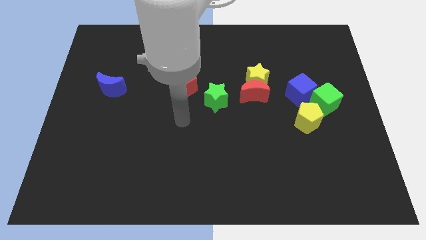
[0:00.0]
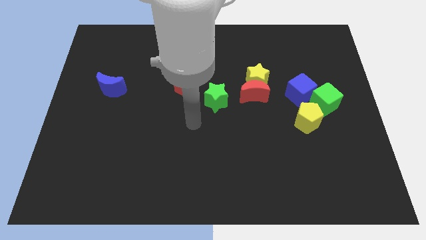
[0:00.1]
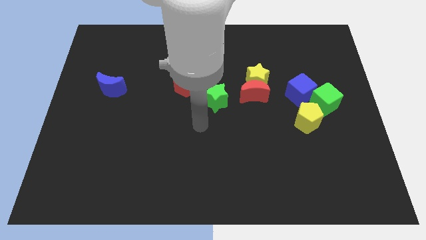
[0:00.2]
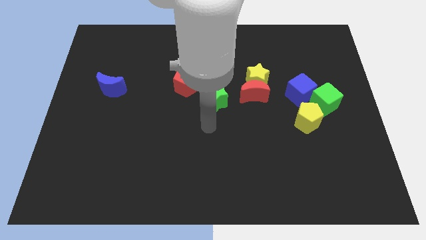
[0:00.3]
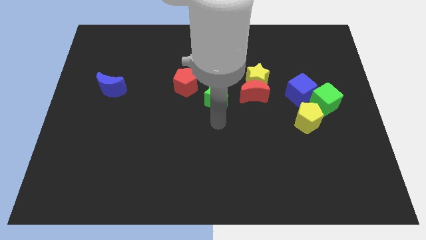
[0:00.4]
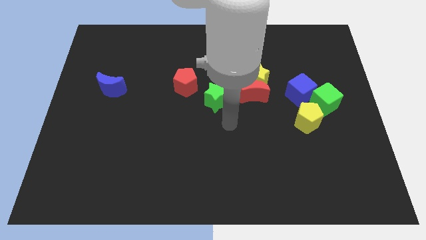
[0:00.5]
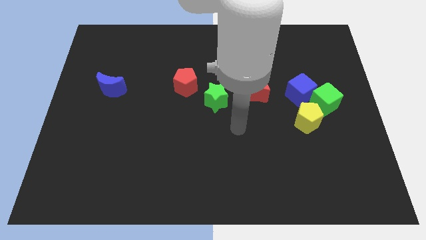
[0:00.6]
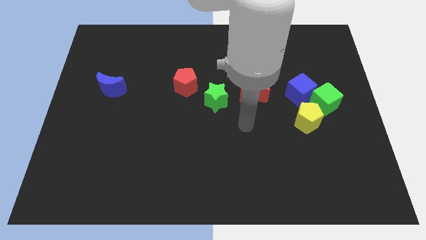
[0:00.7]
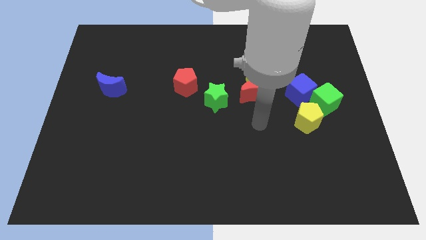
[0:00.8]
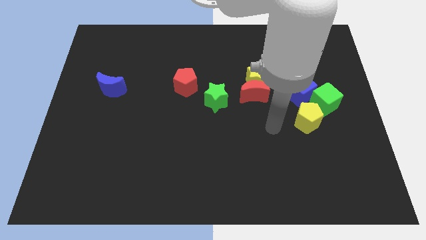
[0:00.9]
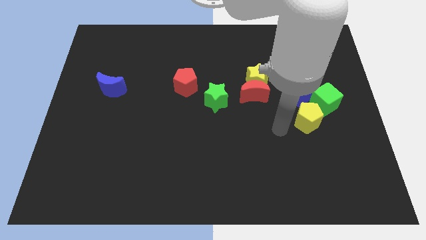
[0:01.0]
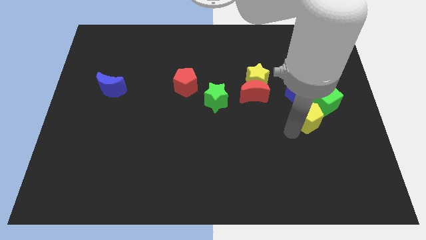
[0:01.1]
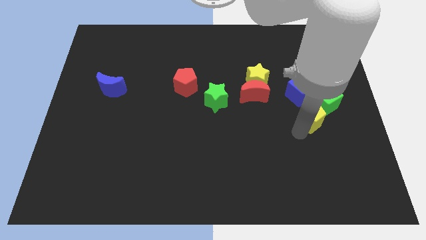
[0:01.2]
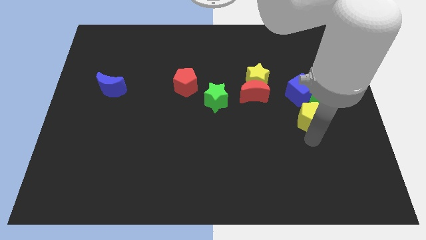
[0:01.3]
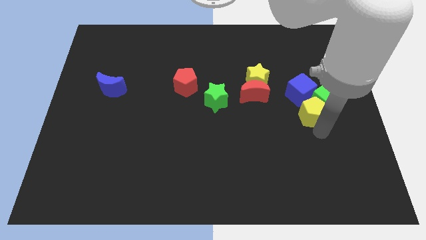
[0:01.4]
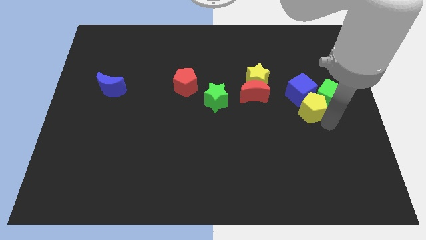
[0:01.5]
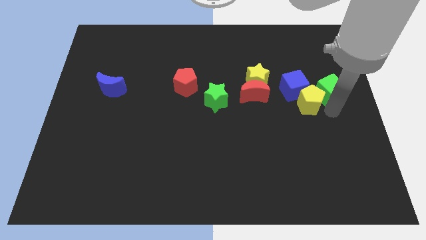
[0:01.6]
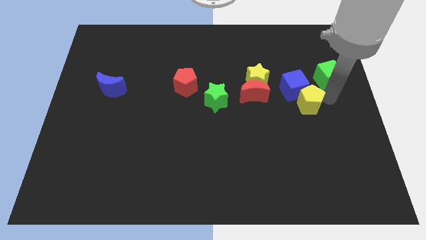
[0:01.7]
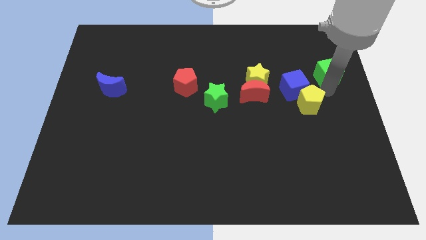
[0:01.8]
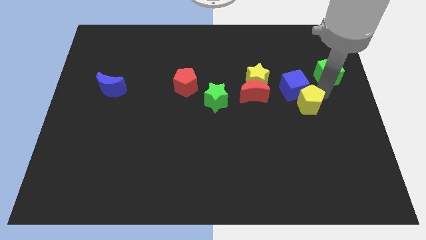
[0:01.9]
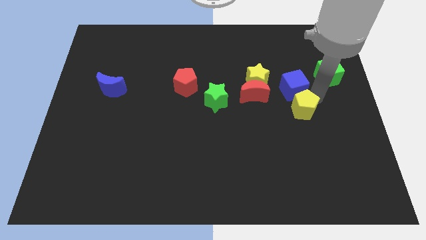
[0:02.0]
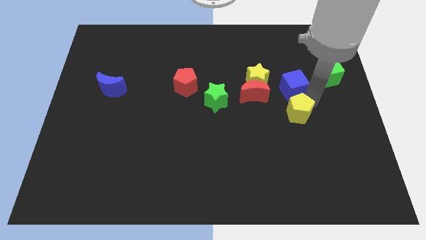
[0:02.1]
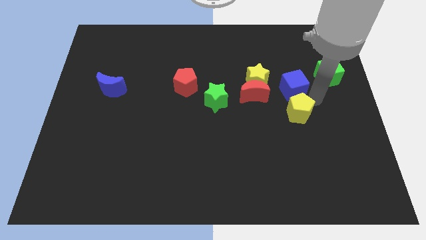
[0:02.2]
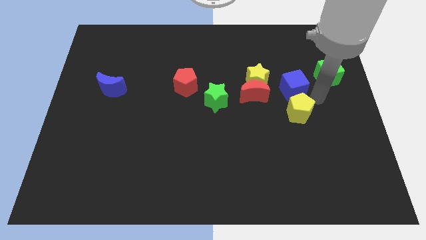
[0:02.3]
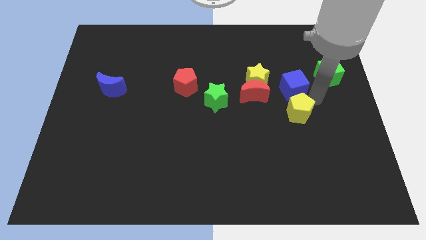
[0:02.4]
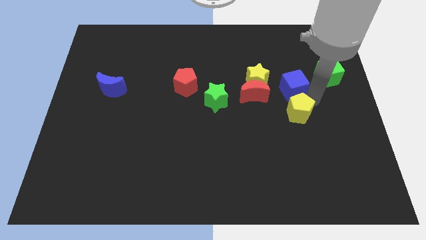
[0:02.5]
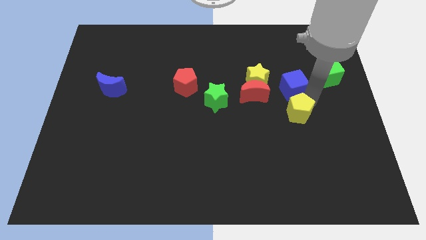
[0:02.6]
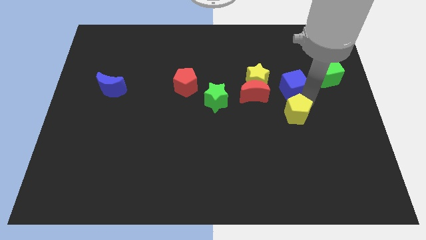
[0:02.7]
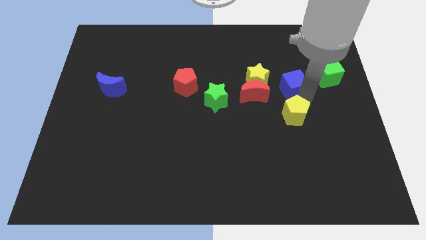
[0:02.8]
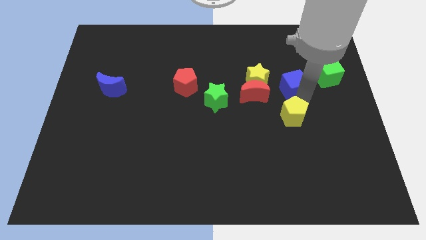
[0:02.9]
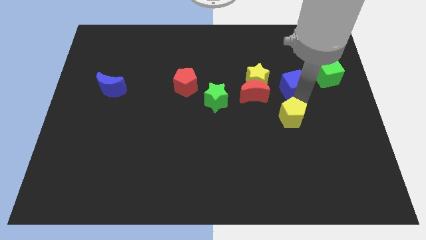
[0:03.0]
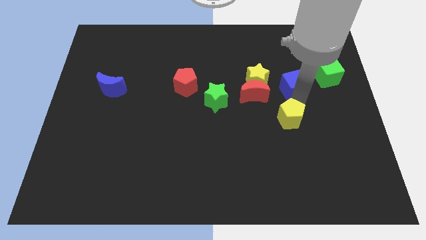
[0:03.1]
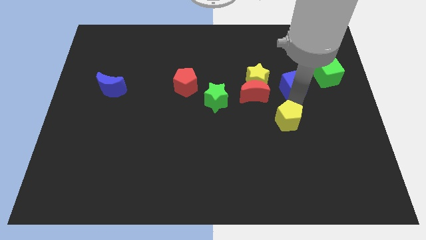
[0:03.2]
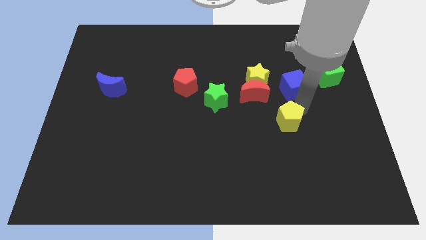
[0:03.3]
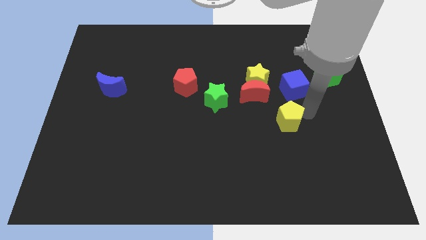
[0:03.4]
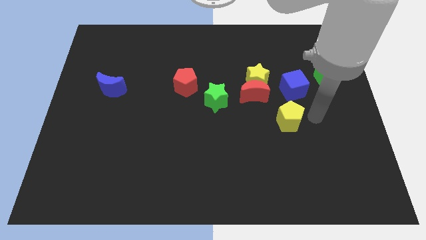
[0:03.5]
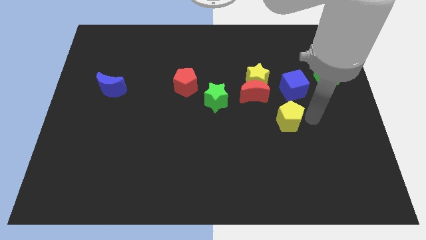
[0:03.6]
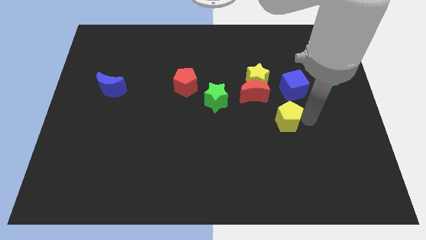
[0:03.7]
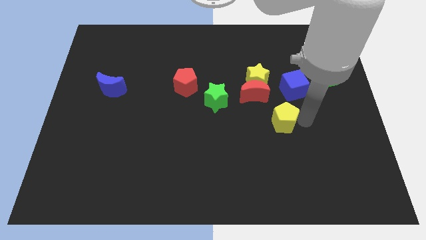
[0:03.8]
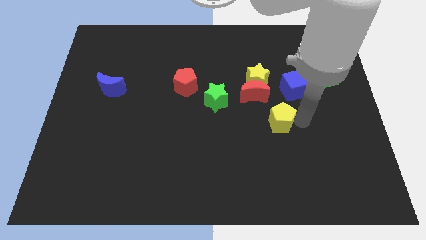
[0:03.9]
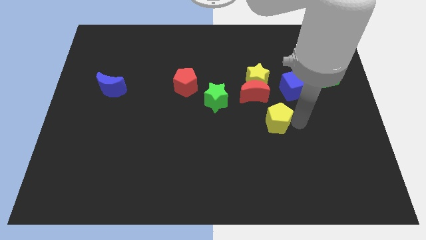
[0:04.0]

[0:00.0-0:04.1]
slightly move the yellow pentagon to the left

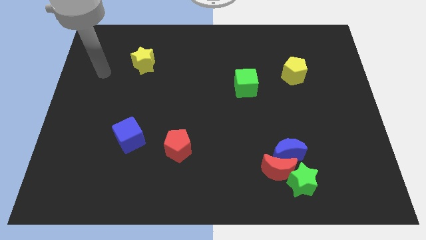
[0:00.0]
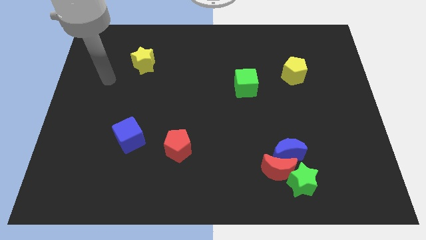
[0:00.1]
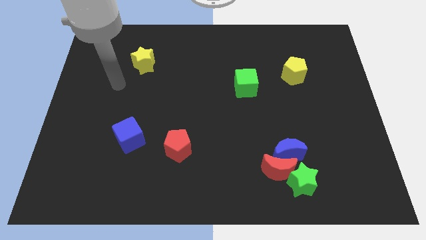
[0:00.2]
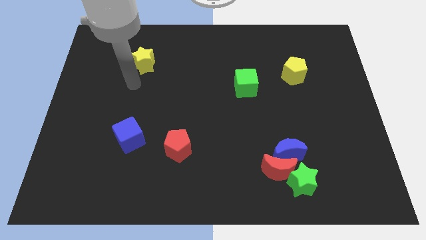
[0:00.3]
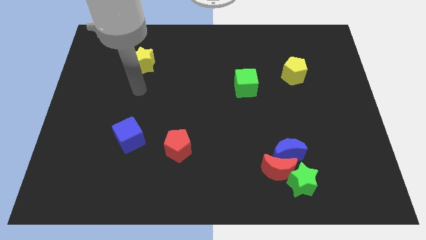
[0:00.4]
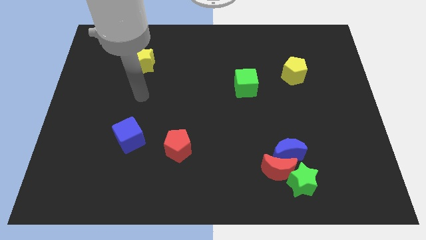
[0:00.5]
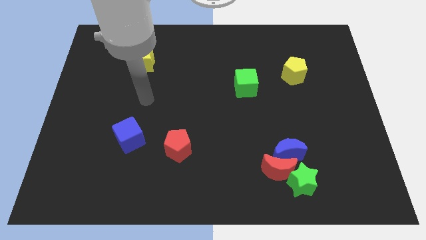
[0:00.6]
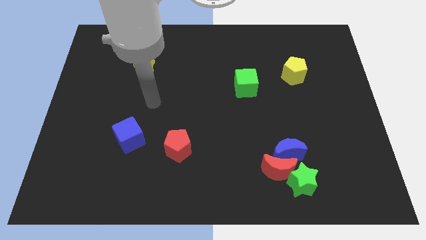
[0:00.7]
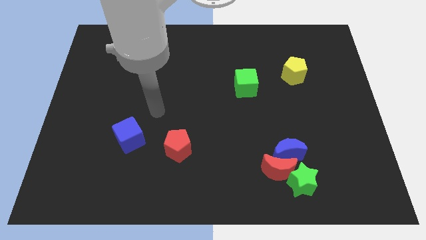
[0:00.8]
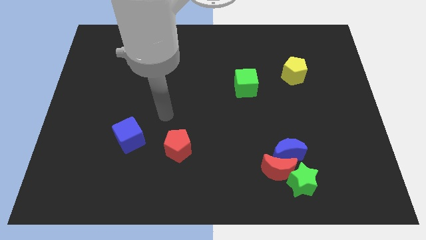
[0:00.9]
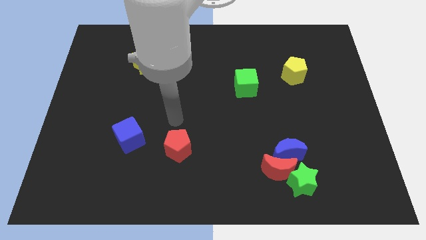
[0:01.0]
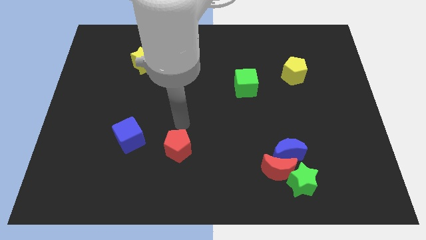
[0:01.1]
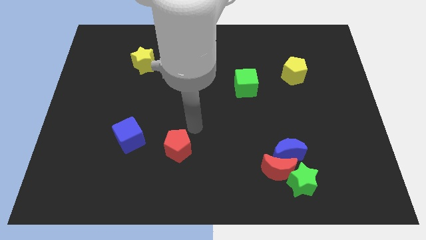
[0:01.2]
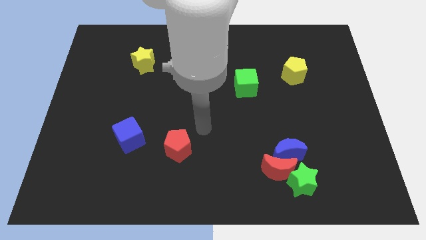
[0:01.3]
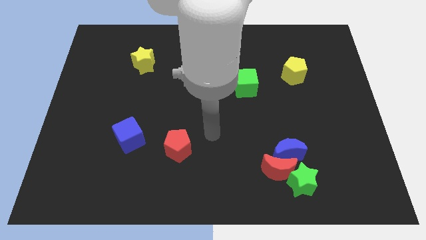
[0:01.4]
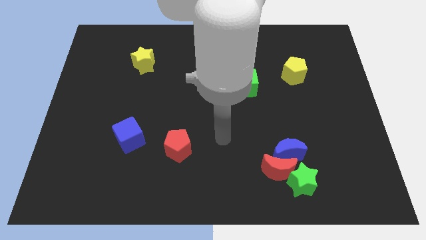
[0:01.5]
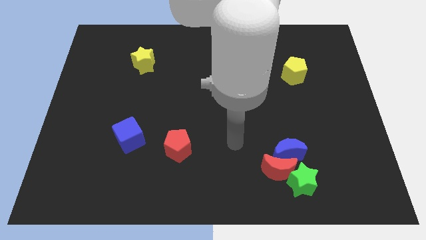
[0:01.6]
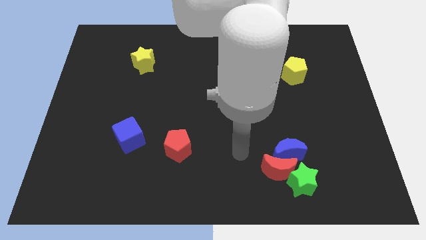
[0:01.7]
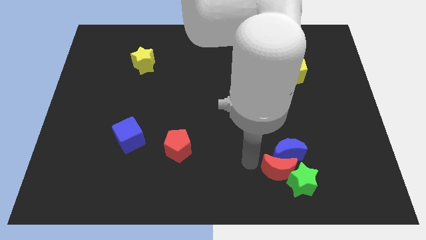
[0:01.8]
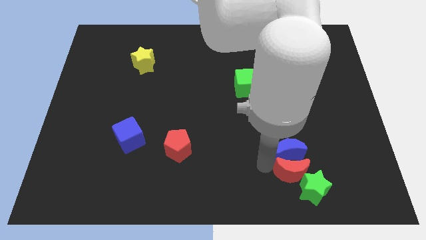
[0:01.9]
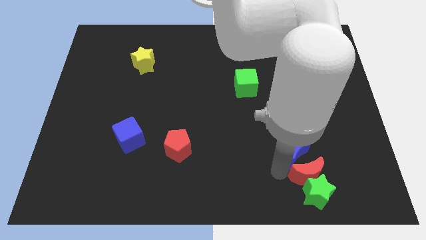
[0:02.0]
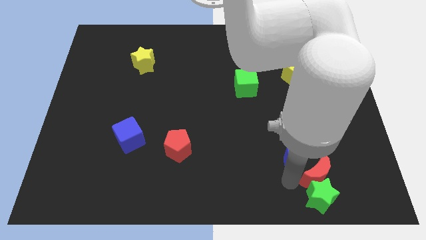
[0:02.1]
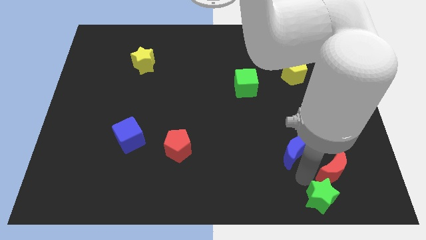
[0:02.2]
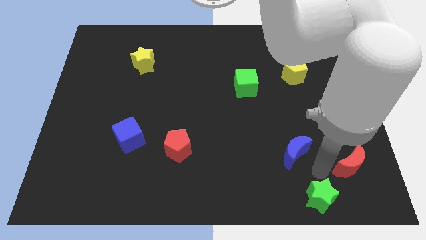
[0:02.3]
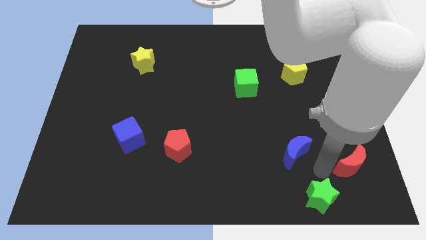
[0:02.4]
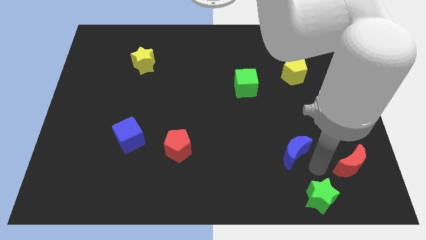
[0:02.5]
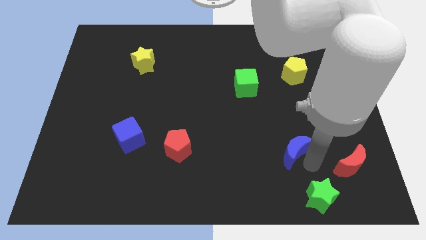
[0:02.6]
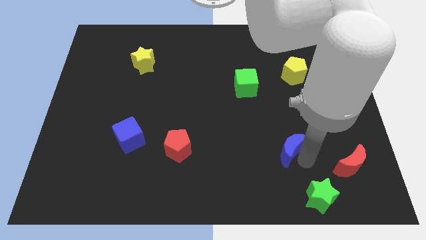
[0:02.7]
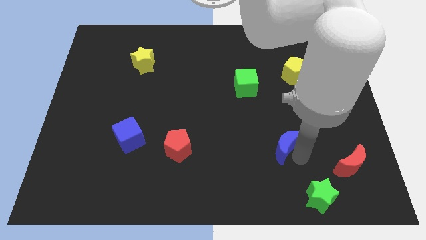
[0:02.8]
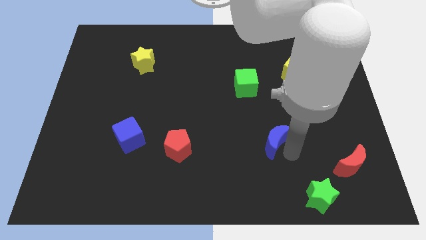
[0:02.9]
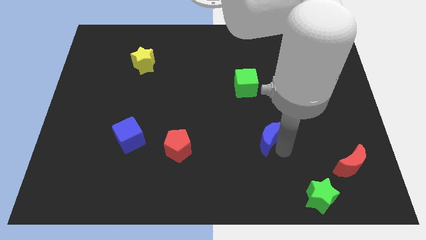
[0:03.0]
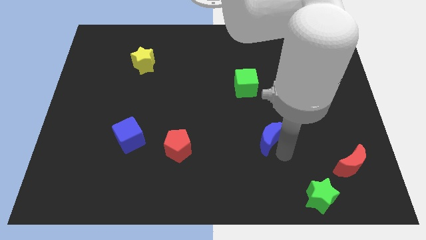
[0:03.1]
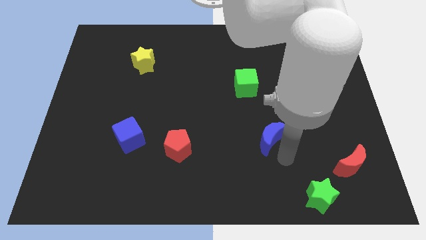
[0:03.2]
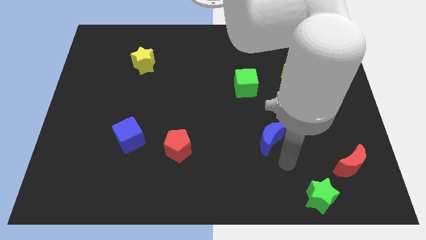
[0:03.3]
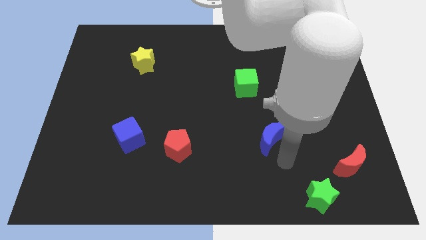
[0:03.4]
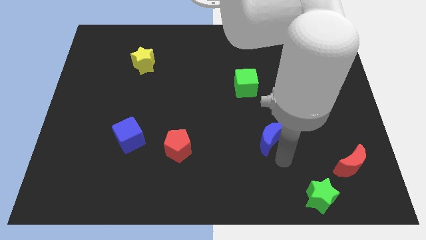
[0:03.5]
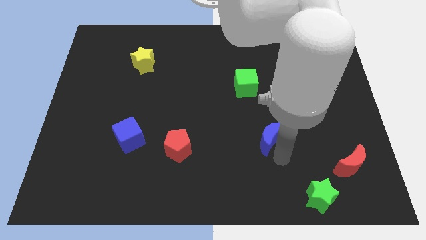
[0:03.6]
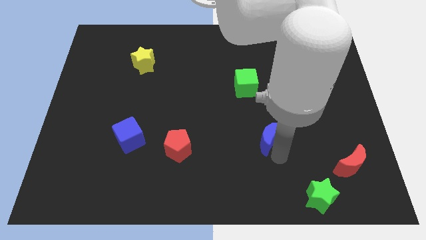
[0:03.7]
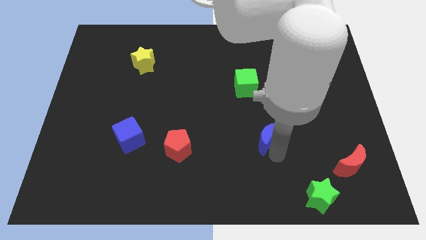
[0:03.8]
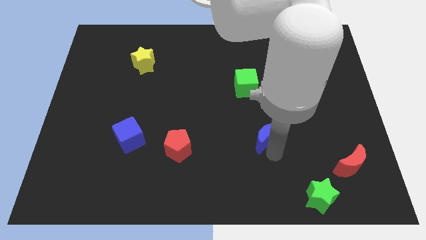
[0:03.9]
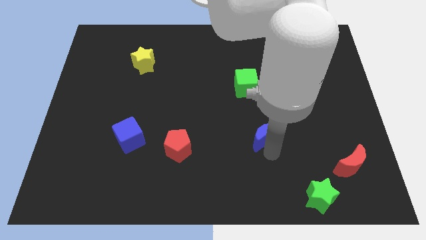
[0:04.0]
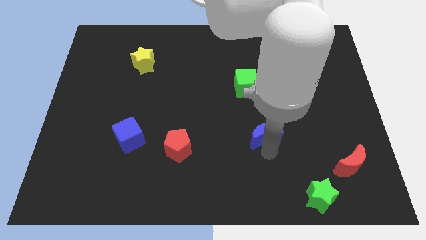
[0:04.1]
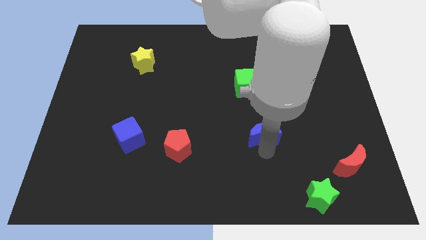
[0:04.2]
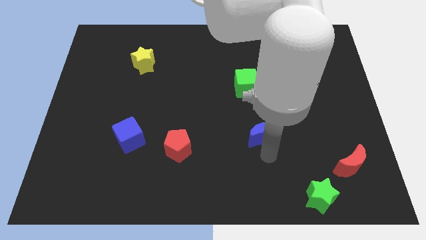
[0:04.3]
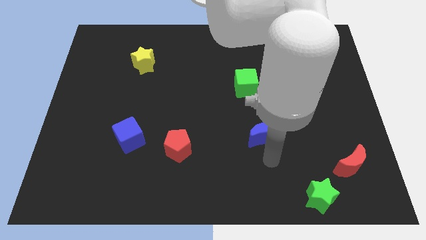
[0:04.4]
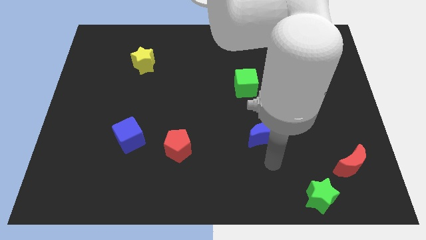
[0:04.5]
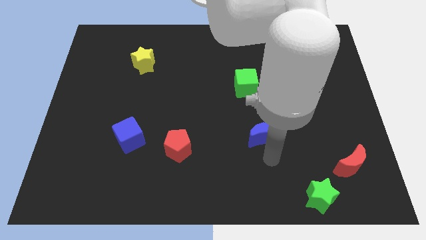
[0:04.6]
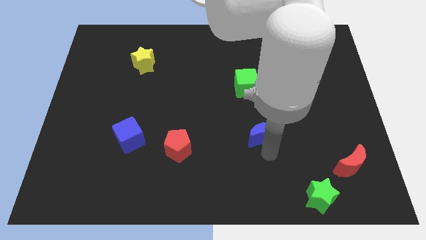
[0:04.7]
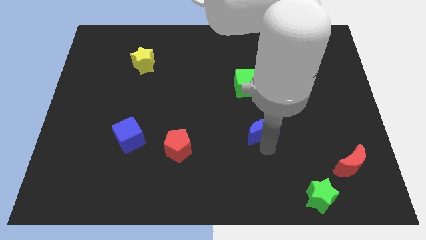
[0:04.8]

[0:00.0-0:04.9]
move the blue moon slightly upwards and then left
